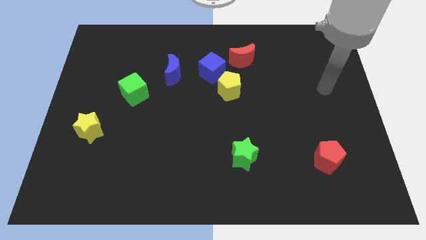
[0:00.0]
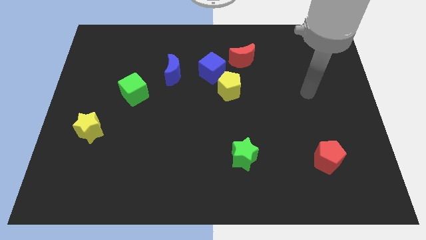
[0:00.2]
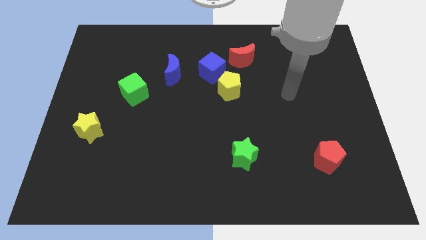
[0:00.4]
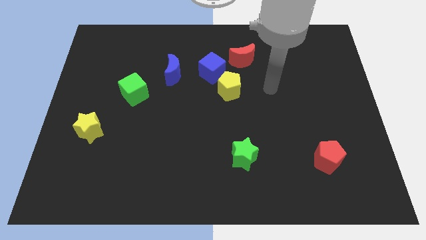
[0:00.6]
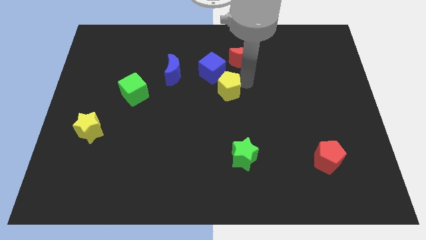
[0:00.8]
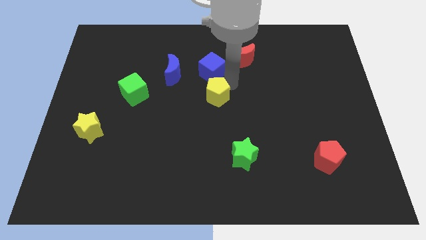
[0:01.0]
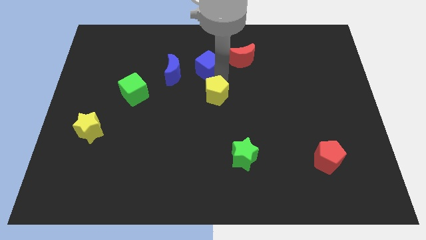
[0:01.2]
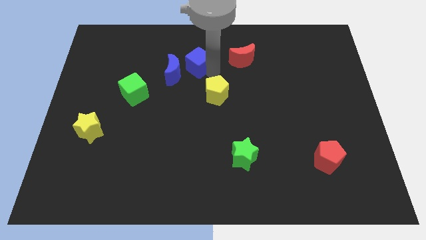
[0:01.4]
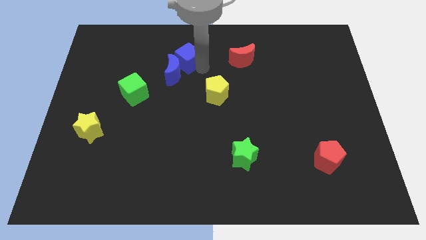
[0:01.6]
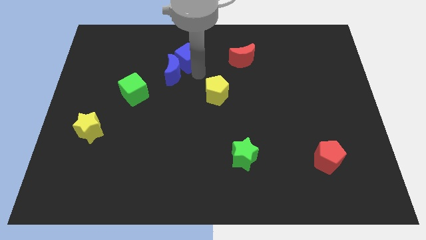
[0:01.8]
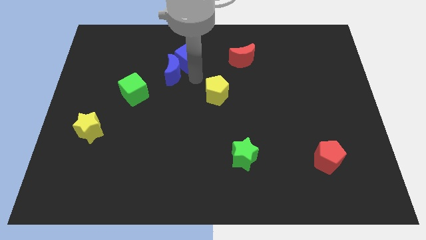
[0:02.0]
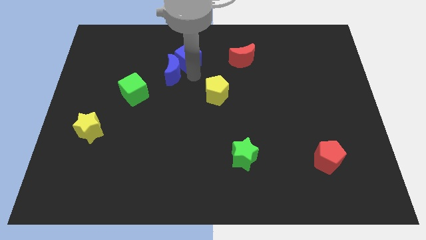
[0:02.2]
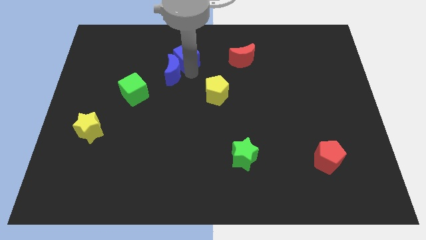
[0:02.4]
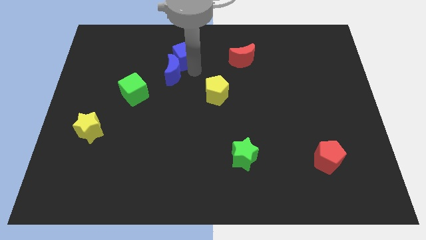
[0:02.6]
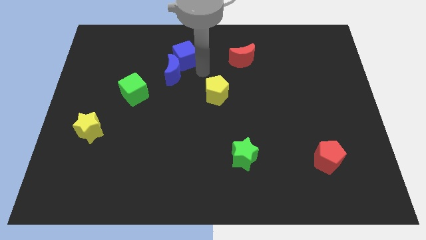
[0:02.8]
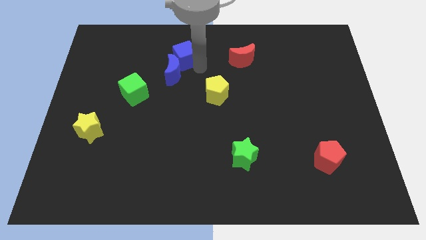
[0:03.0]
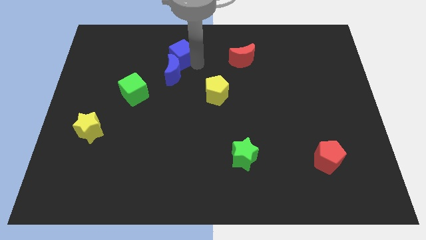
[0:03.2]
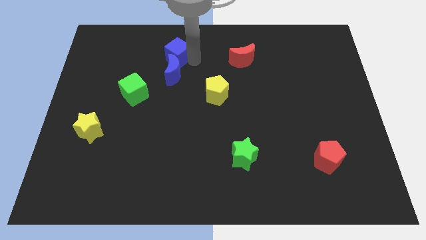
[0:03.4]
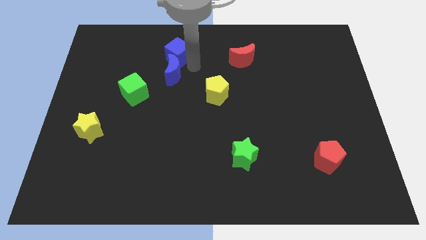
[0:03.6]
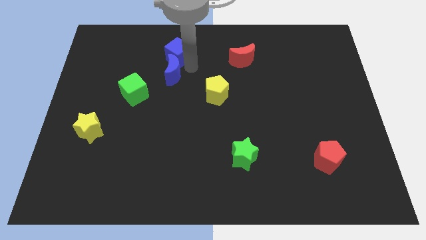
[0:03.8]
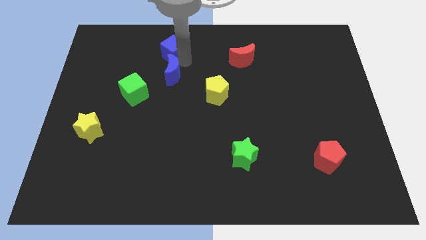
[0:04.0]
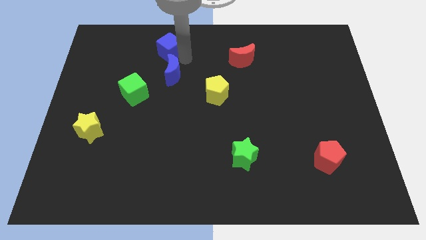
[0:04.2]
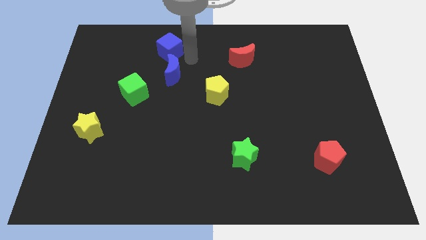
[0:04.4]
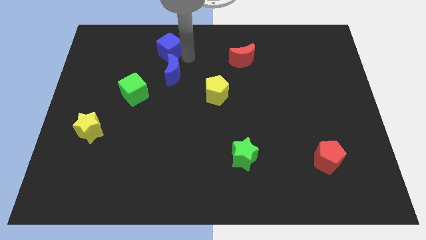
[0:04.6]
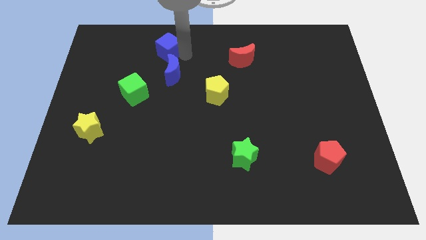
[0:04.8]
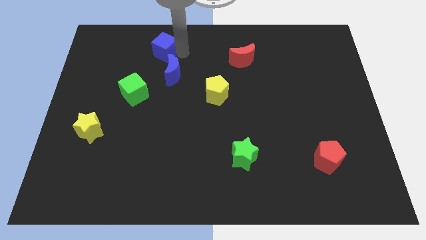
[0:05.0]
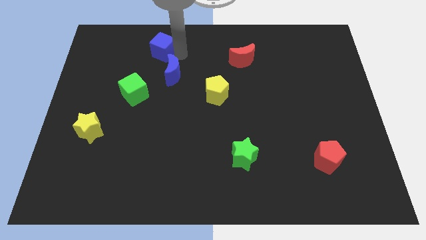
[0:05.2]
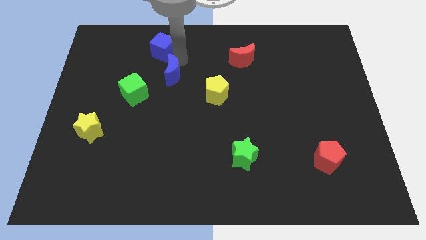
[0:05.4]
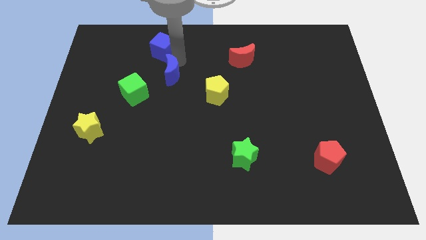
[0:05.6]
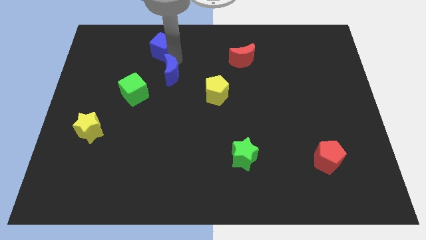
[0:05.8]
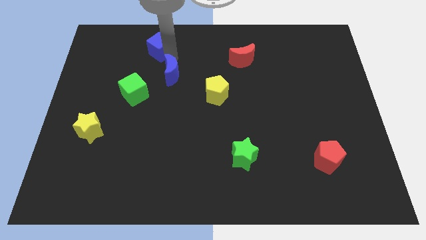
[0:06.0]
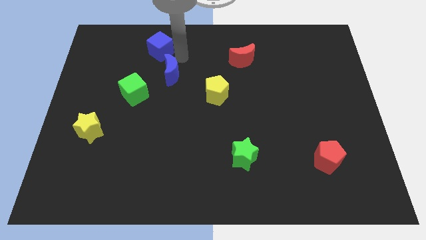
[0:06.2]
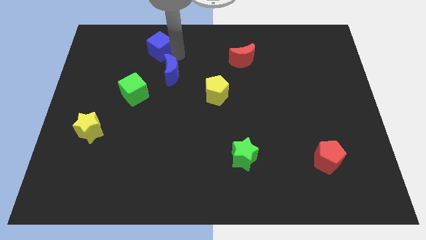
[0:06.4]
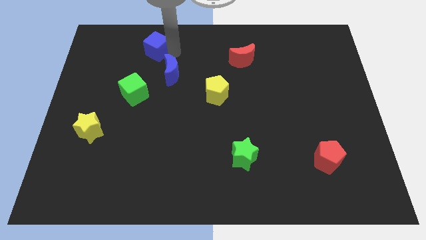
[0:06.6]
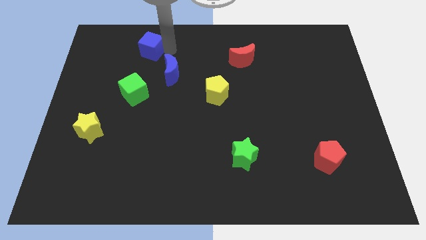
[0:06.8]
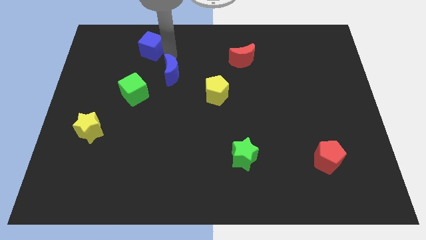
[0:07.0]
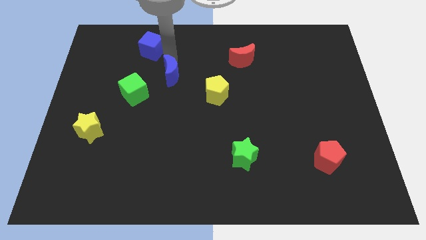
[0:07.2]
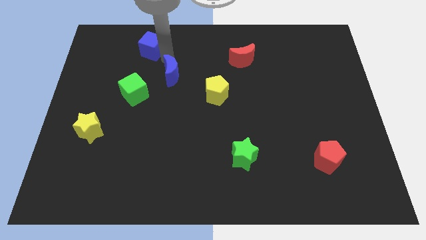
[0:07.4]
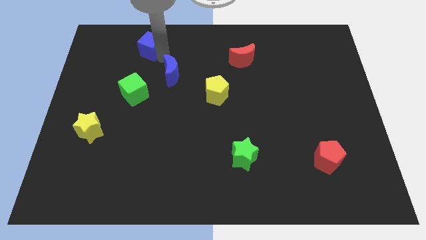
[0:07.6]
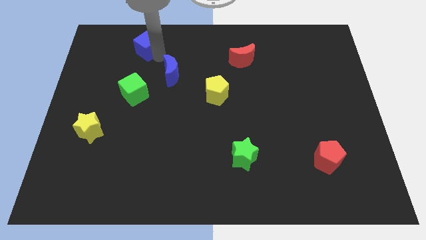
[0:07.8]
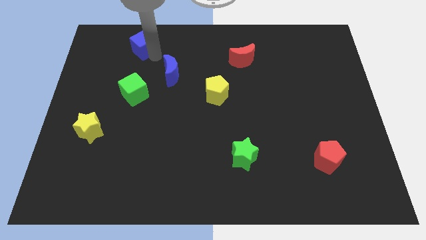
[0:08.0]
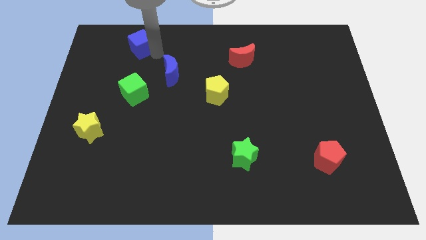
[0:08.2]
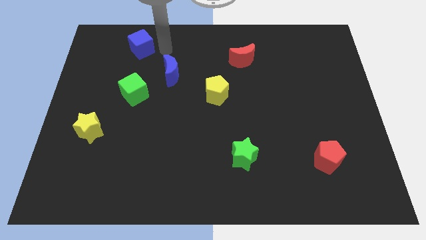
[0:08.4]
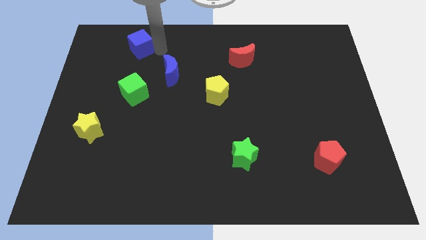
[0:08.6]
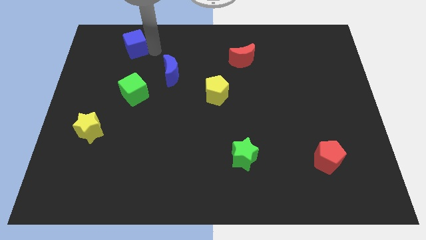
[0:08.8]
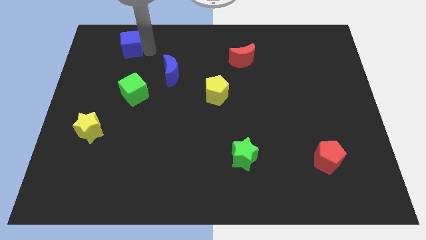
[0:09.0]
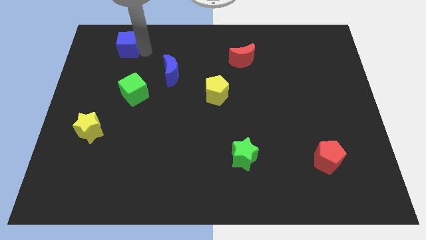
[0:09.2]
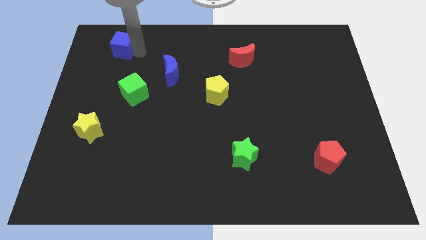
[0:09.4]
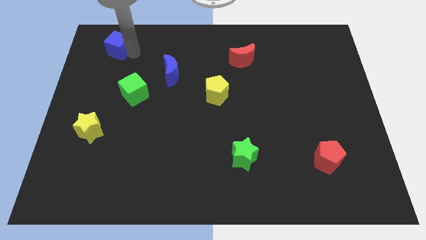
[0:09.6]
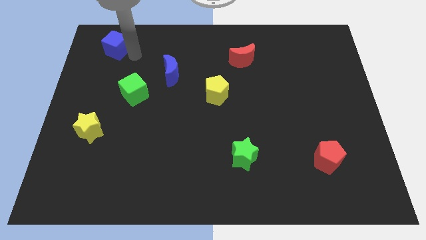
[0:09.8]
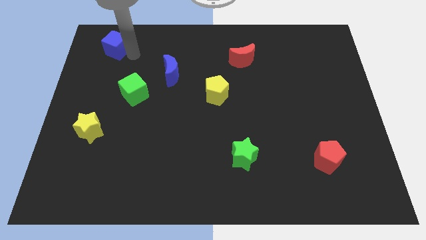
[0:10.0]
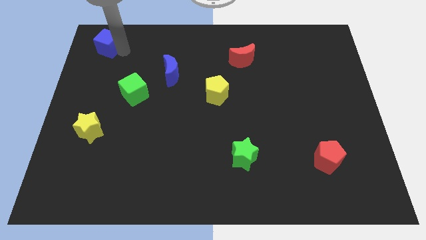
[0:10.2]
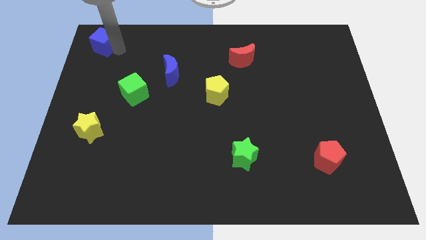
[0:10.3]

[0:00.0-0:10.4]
put the blue cube to the top left

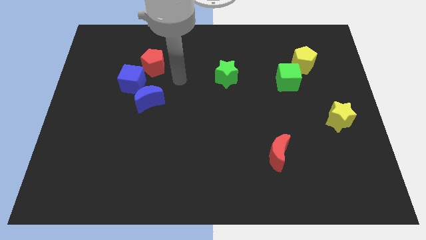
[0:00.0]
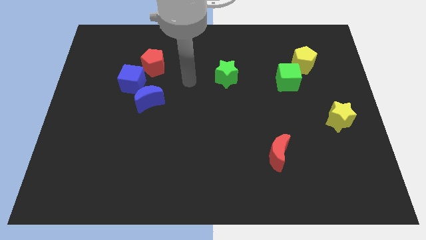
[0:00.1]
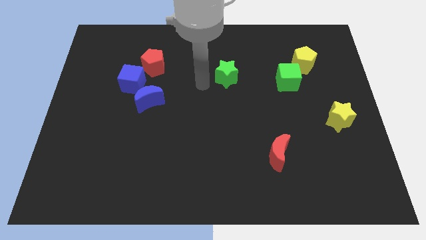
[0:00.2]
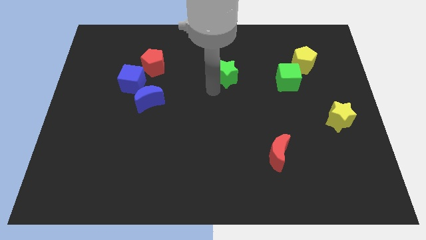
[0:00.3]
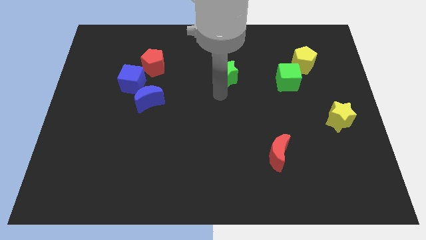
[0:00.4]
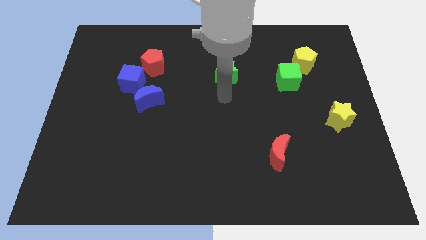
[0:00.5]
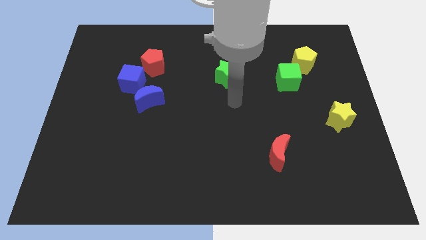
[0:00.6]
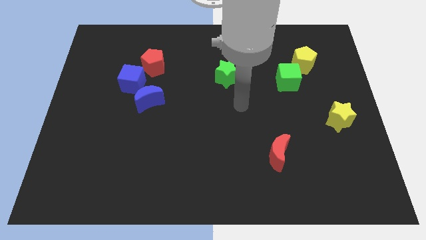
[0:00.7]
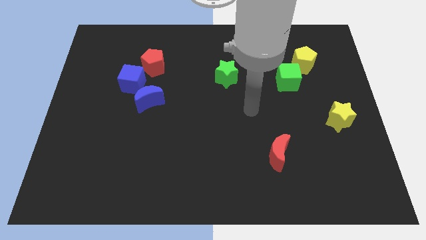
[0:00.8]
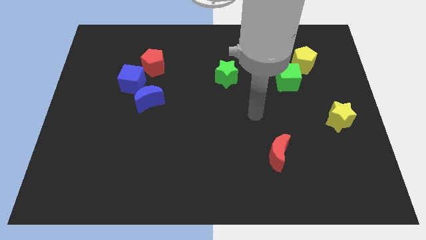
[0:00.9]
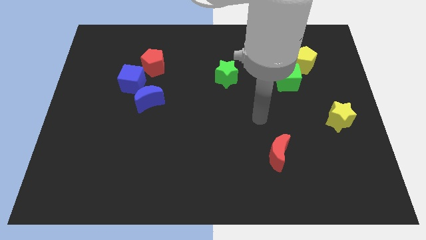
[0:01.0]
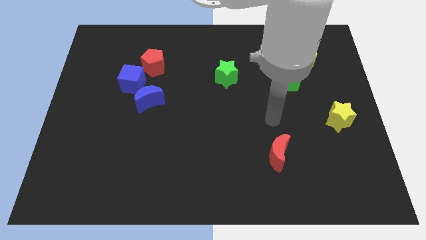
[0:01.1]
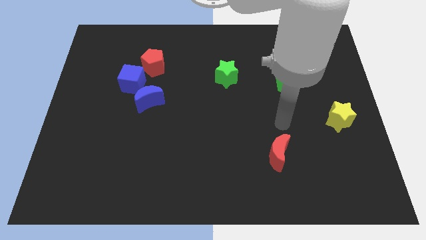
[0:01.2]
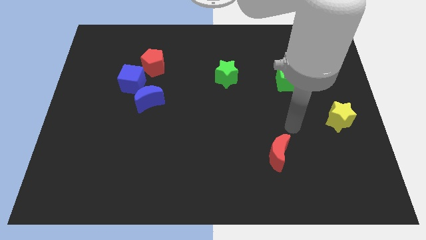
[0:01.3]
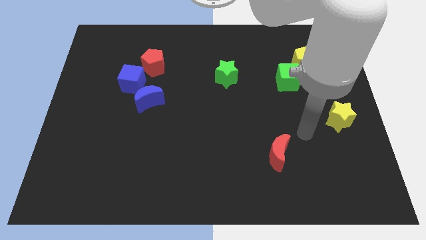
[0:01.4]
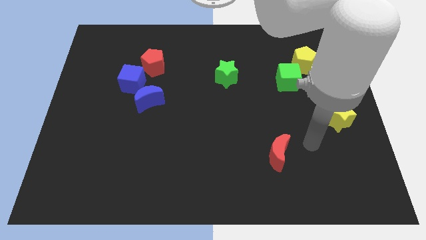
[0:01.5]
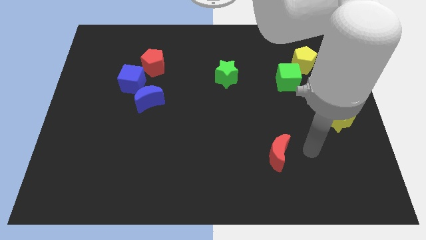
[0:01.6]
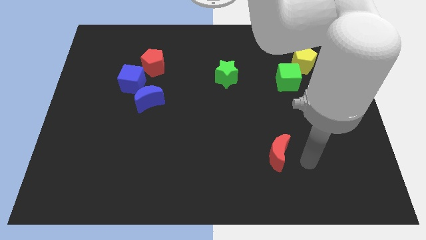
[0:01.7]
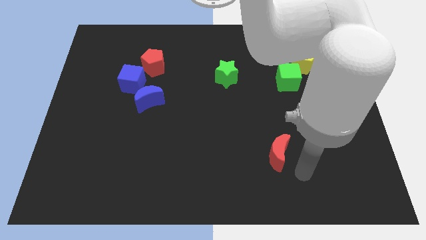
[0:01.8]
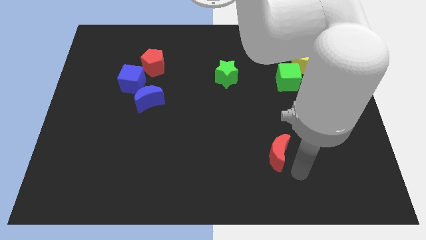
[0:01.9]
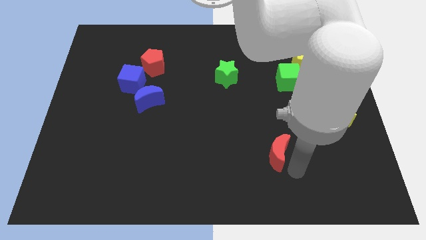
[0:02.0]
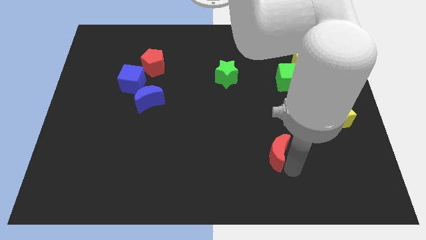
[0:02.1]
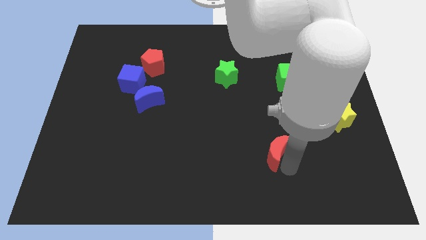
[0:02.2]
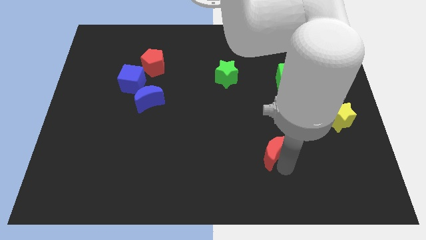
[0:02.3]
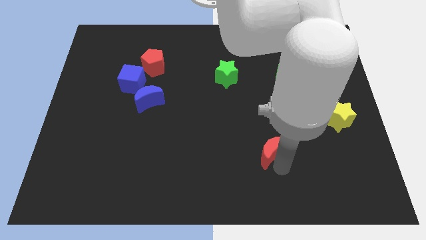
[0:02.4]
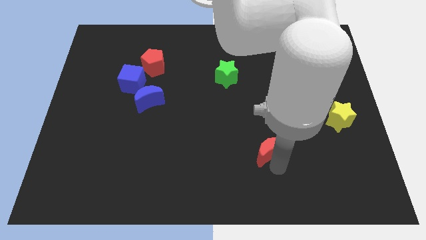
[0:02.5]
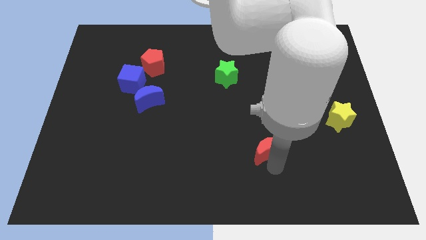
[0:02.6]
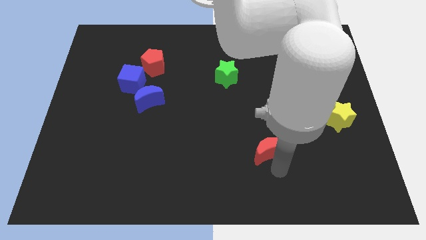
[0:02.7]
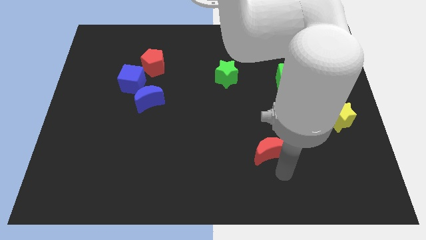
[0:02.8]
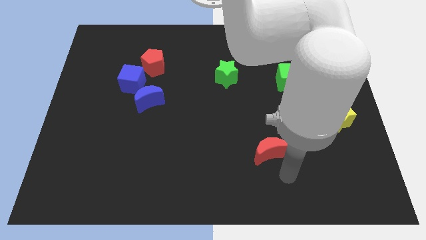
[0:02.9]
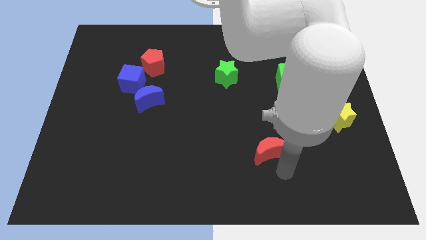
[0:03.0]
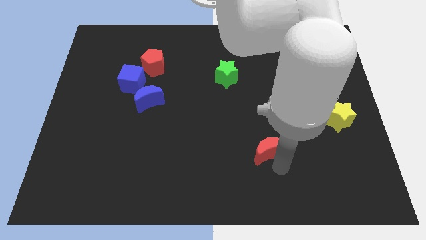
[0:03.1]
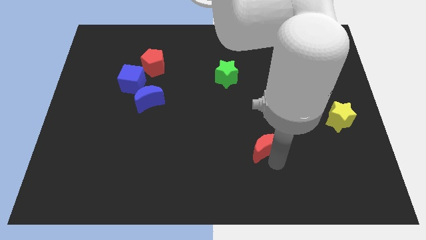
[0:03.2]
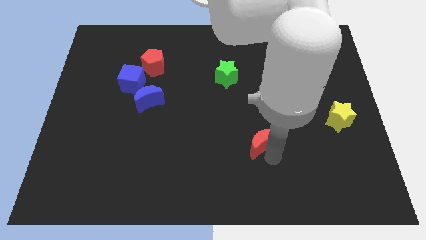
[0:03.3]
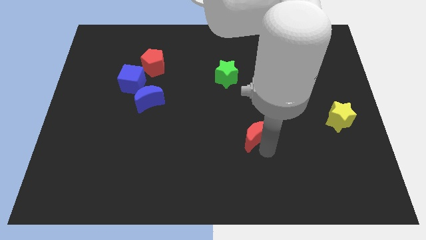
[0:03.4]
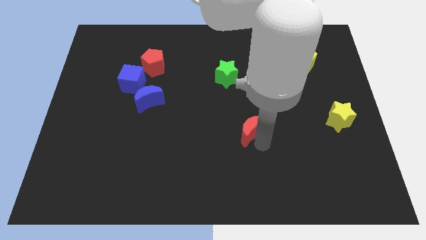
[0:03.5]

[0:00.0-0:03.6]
slide the red moon to the middle
